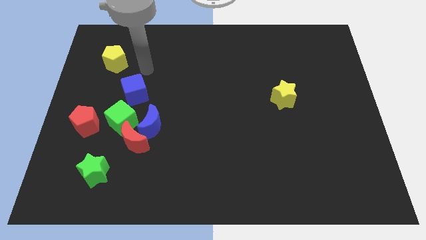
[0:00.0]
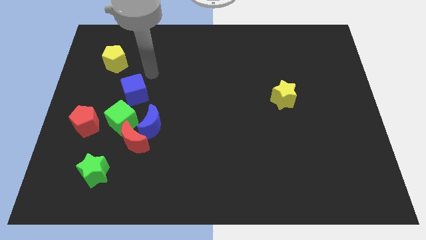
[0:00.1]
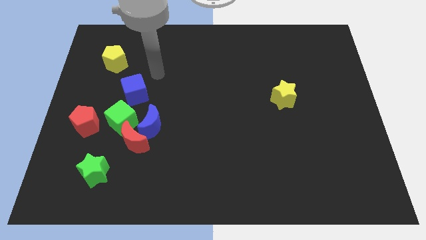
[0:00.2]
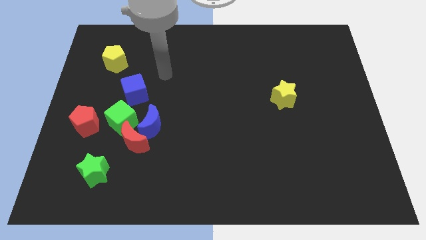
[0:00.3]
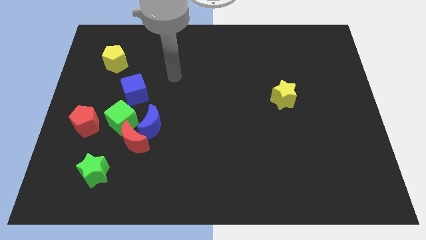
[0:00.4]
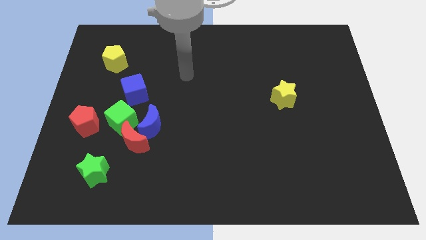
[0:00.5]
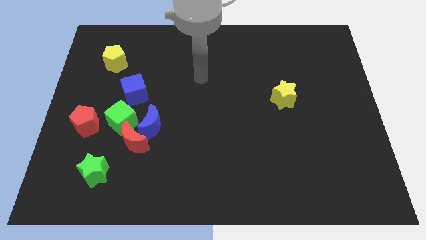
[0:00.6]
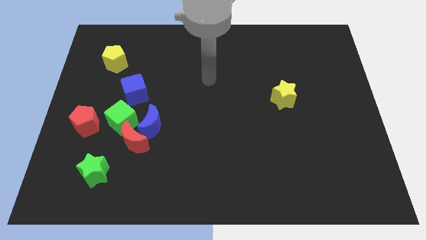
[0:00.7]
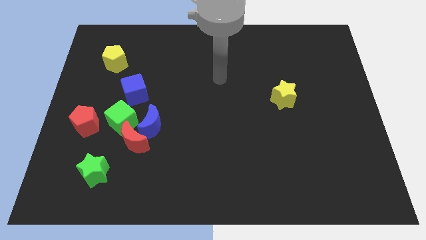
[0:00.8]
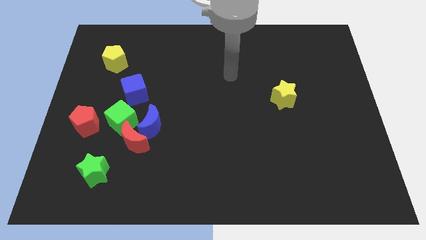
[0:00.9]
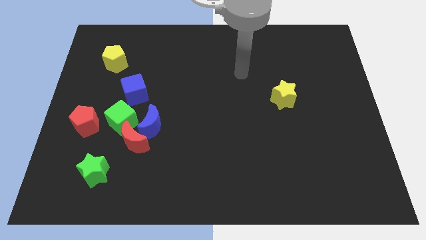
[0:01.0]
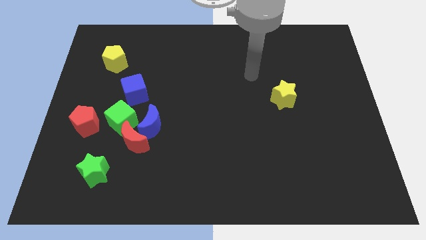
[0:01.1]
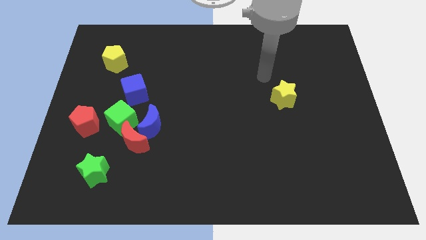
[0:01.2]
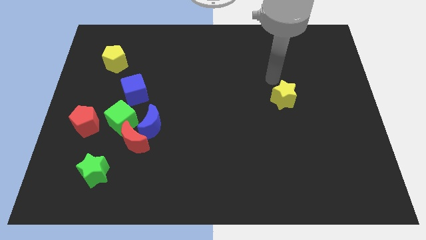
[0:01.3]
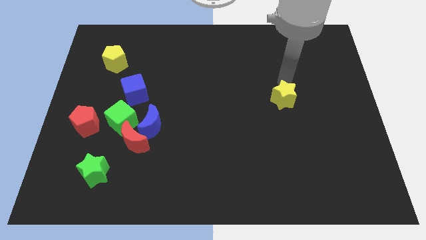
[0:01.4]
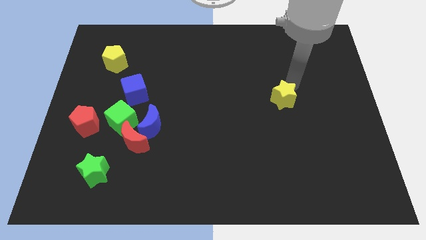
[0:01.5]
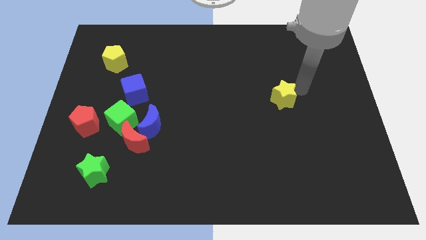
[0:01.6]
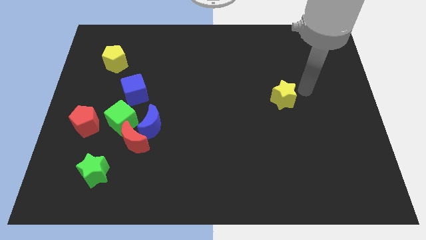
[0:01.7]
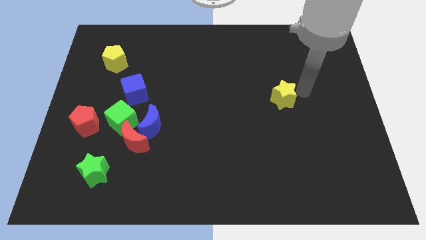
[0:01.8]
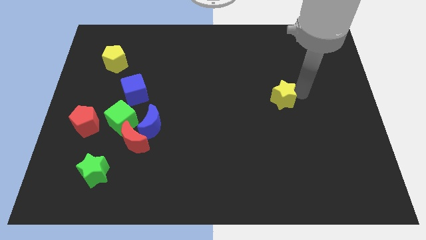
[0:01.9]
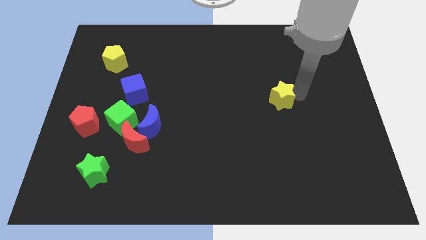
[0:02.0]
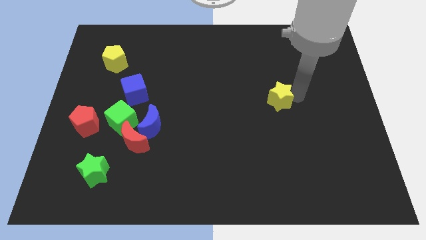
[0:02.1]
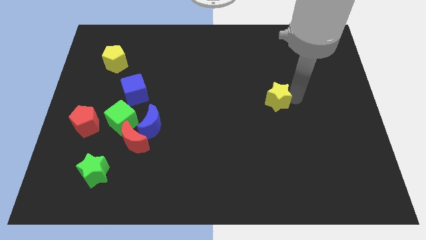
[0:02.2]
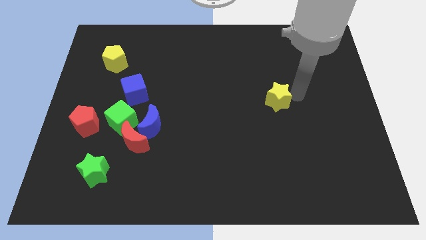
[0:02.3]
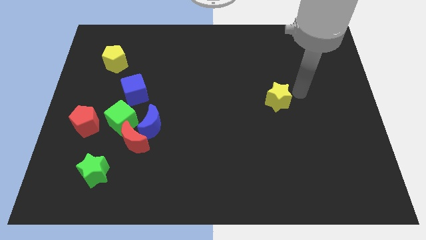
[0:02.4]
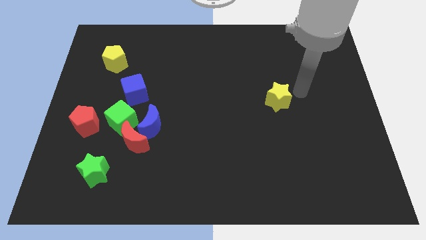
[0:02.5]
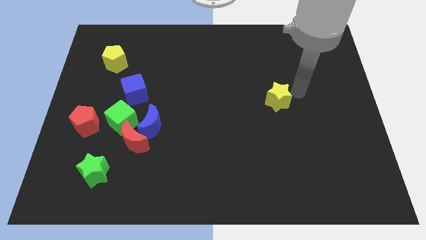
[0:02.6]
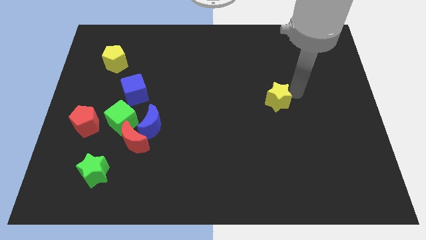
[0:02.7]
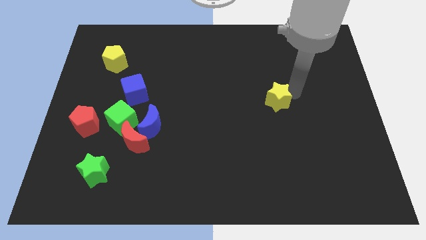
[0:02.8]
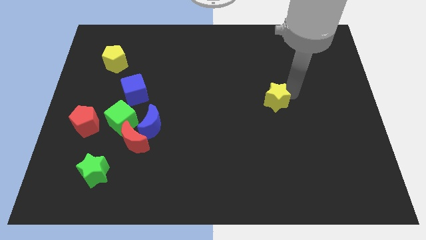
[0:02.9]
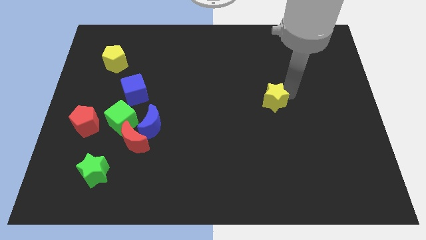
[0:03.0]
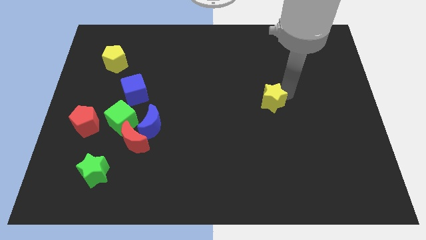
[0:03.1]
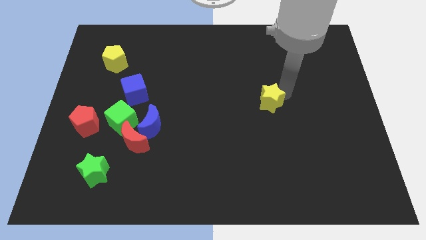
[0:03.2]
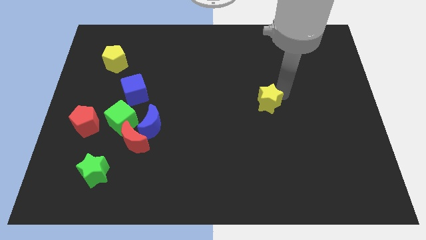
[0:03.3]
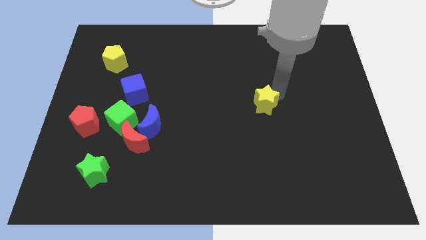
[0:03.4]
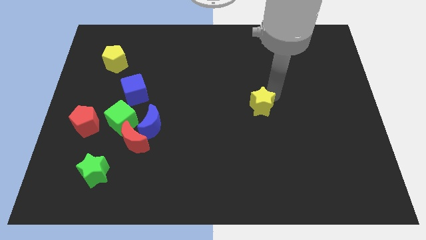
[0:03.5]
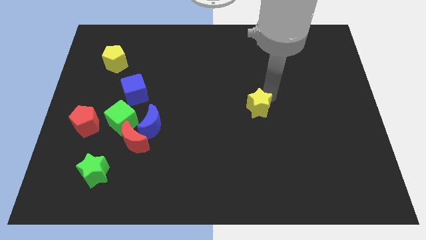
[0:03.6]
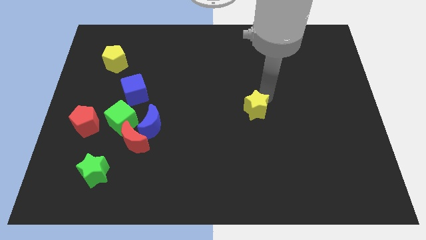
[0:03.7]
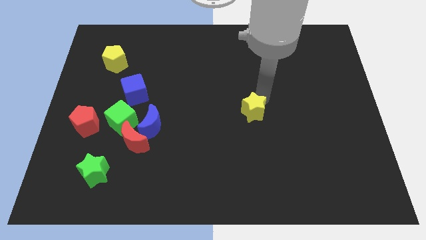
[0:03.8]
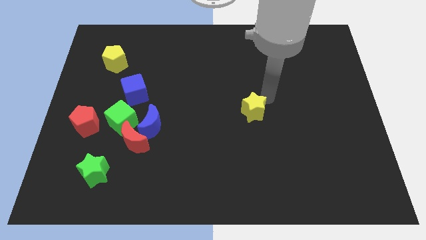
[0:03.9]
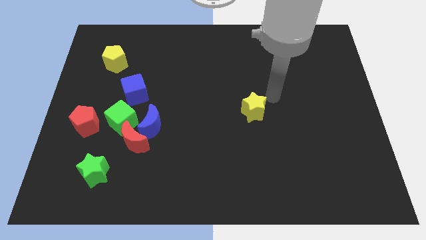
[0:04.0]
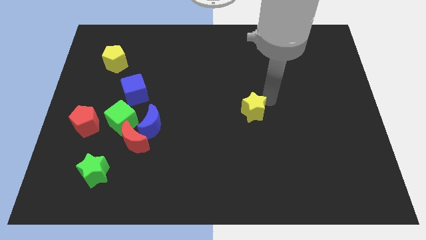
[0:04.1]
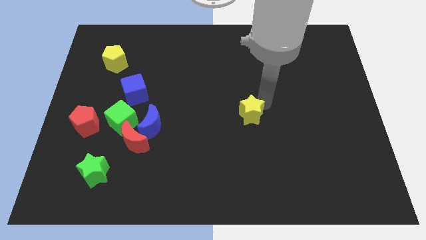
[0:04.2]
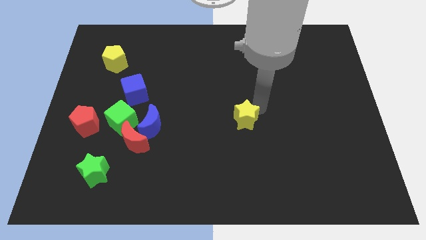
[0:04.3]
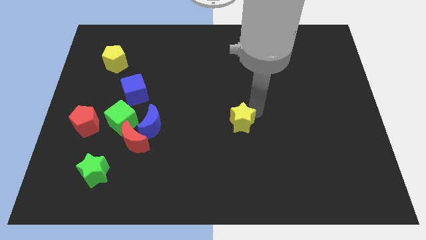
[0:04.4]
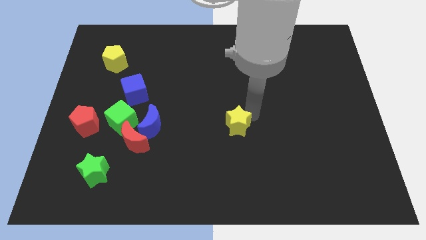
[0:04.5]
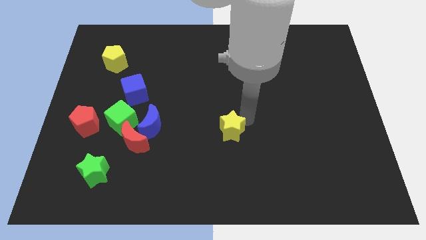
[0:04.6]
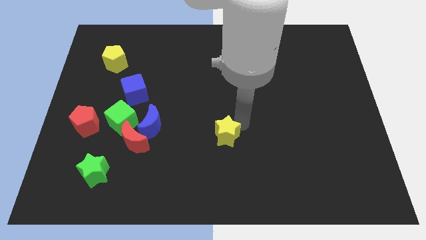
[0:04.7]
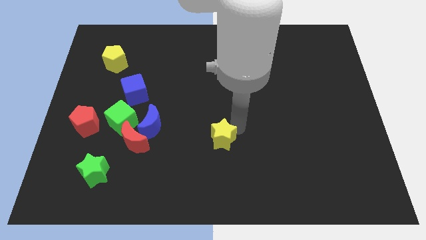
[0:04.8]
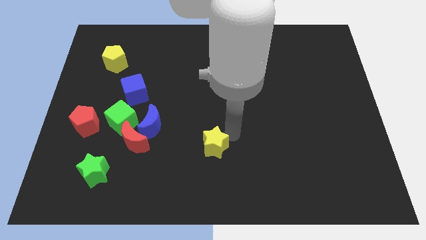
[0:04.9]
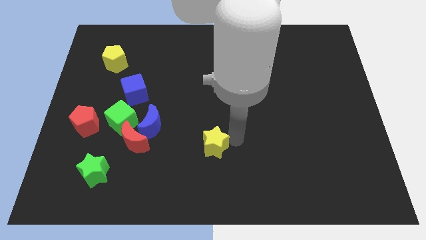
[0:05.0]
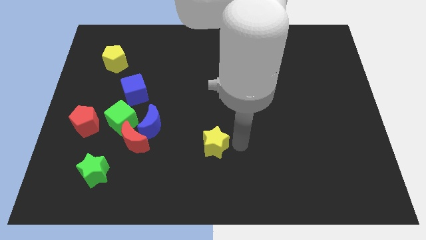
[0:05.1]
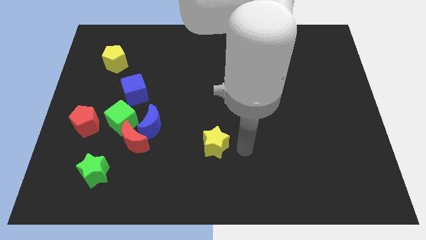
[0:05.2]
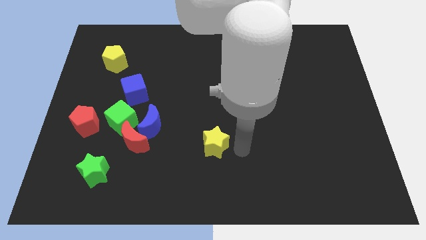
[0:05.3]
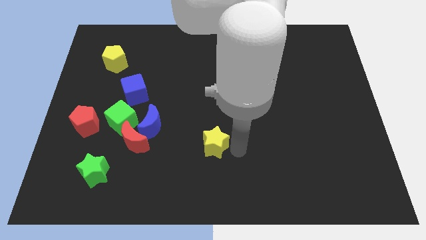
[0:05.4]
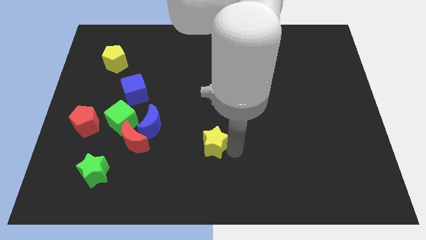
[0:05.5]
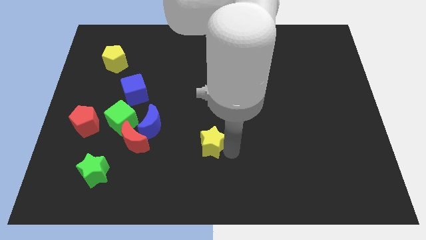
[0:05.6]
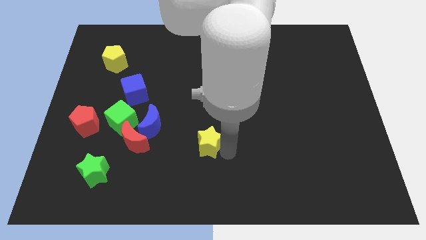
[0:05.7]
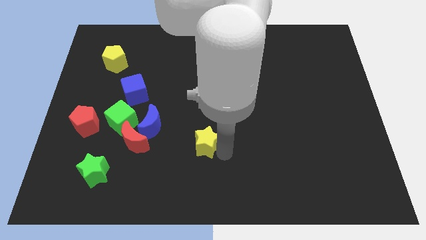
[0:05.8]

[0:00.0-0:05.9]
move the yellow star to the right of the red moon
